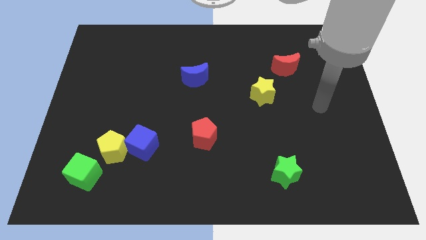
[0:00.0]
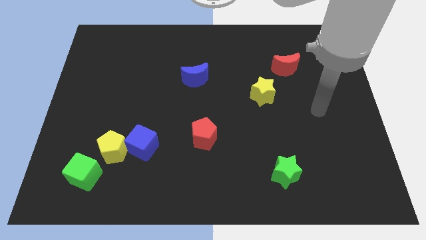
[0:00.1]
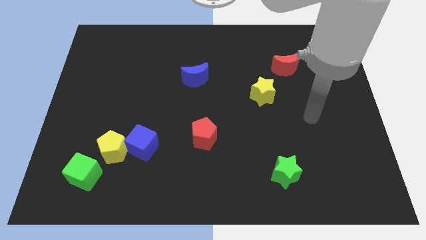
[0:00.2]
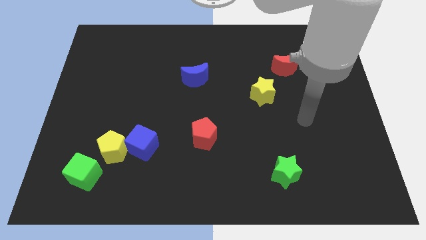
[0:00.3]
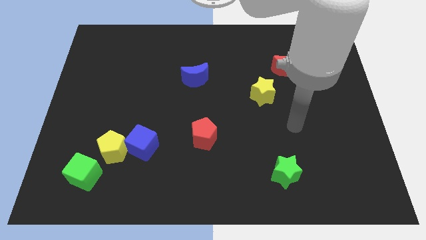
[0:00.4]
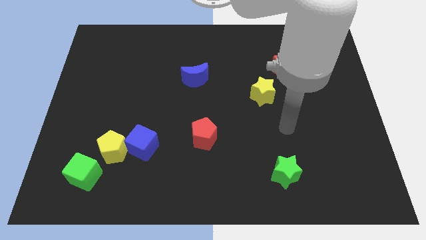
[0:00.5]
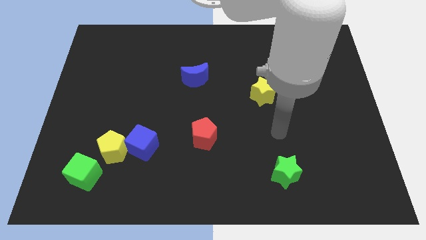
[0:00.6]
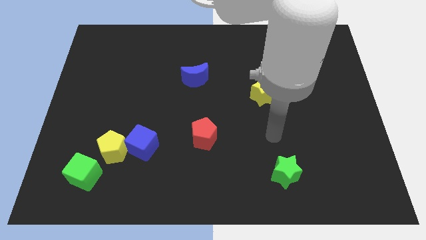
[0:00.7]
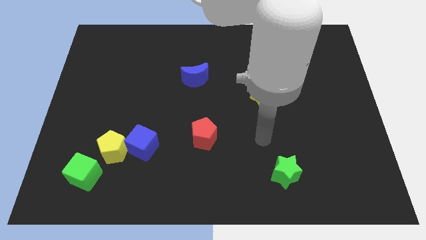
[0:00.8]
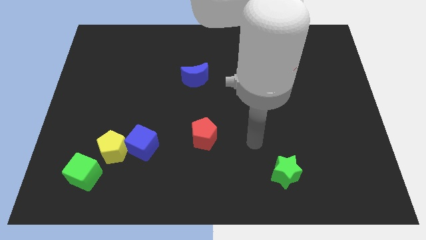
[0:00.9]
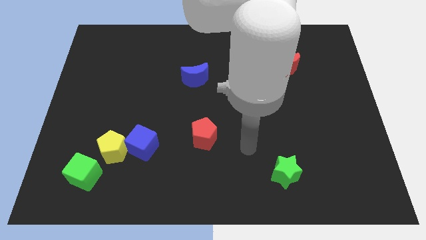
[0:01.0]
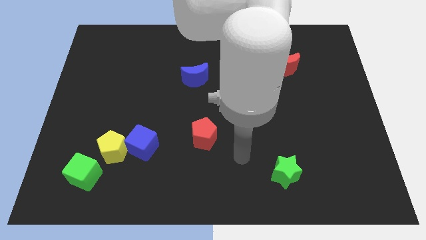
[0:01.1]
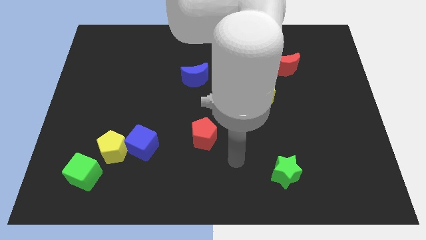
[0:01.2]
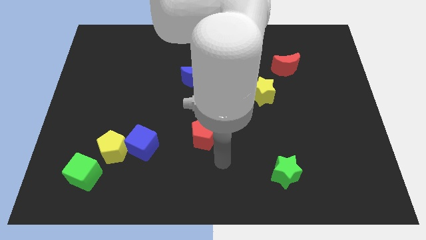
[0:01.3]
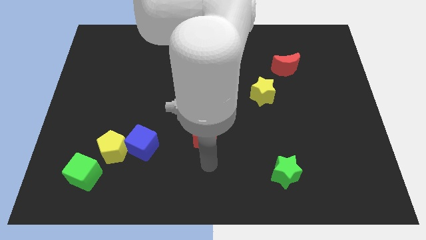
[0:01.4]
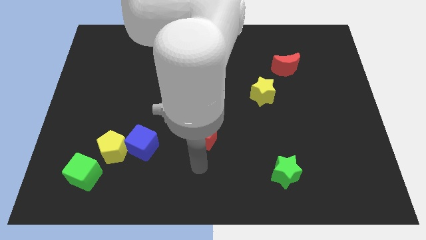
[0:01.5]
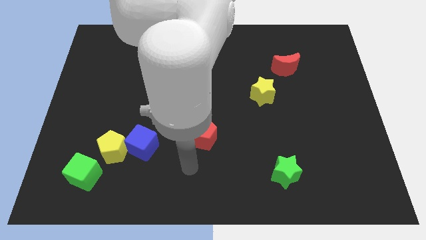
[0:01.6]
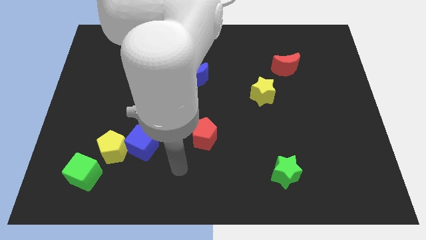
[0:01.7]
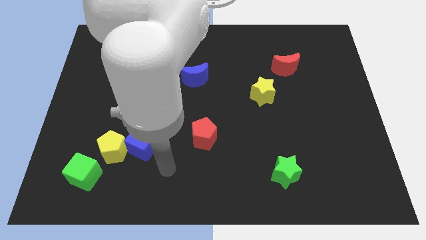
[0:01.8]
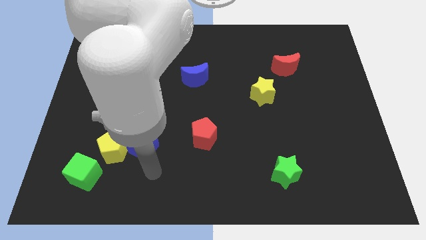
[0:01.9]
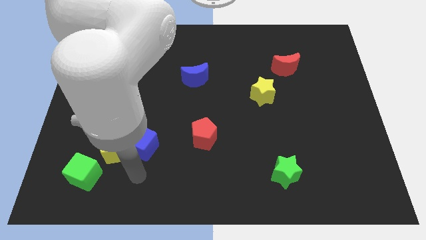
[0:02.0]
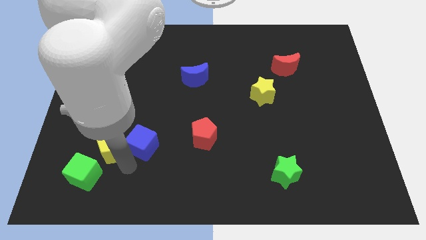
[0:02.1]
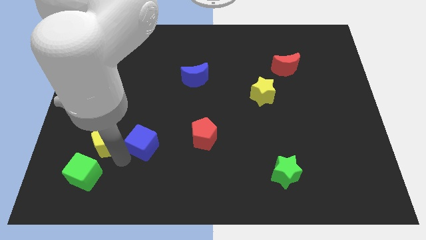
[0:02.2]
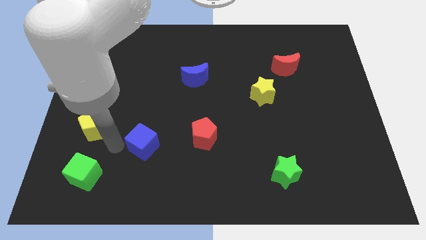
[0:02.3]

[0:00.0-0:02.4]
separate the blue cube from the yellow pentagon

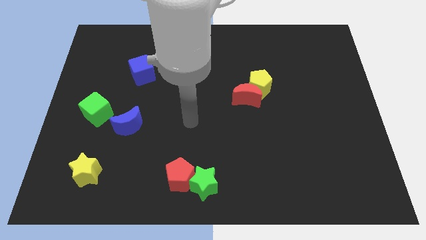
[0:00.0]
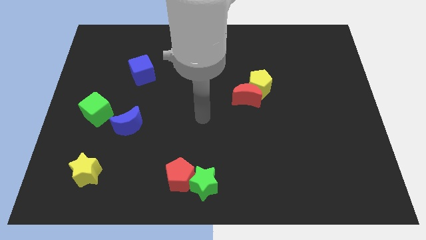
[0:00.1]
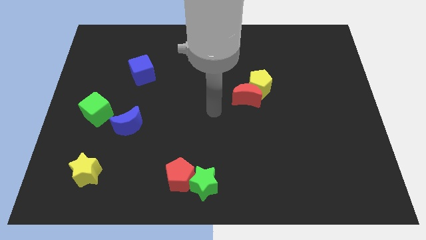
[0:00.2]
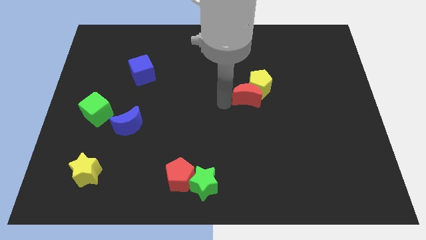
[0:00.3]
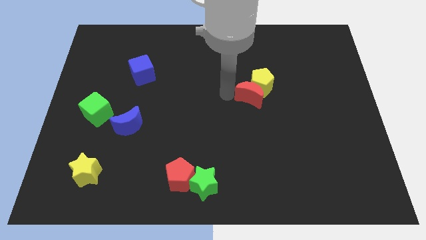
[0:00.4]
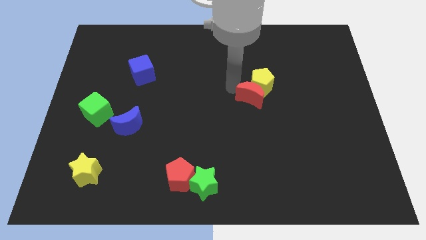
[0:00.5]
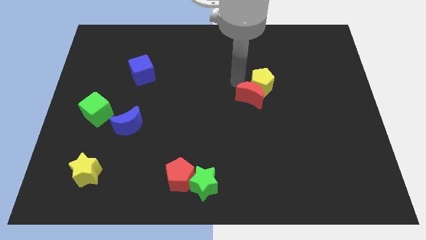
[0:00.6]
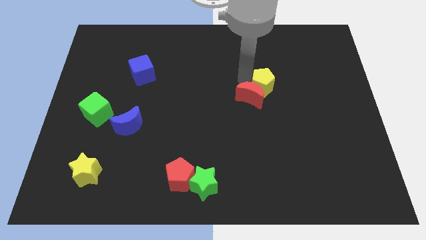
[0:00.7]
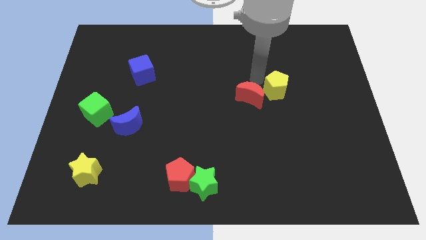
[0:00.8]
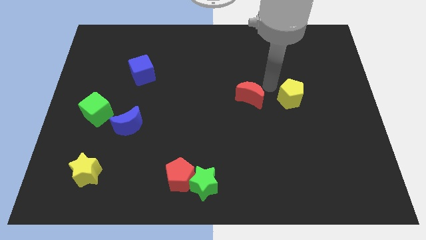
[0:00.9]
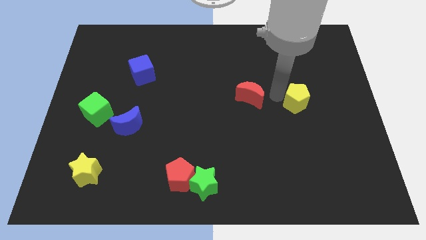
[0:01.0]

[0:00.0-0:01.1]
pull the red moon apart from the yellow pentagon

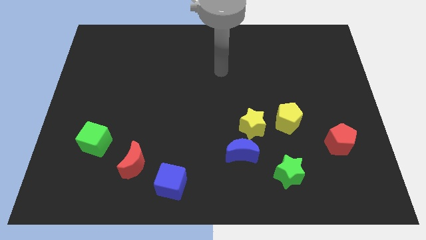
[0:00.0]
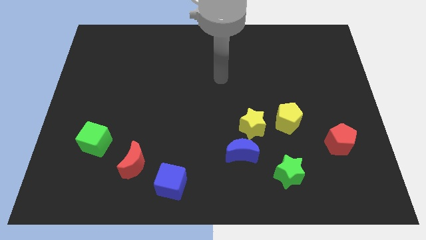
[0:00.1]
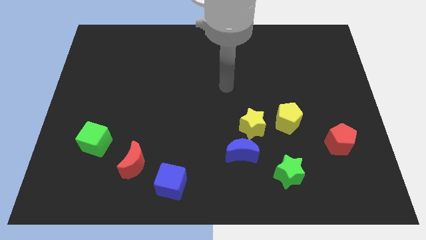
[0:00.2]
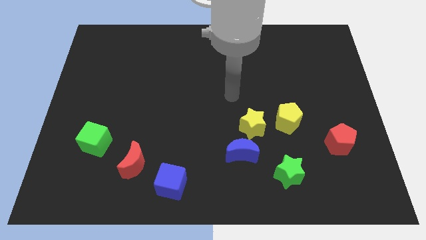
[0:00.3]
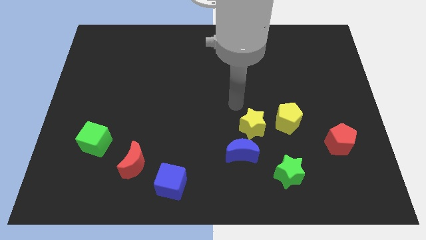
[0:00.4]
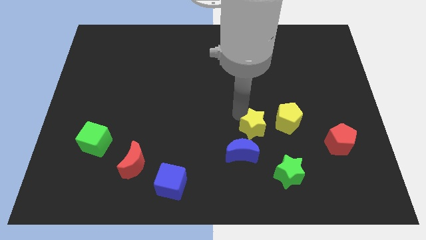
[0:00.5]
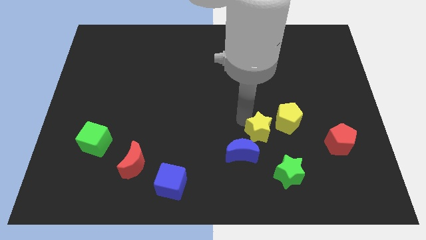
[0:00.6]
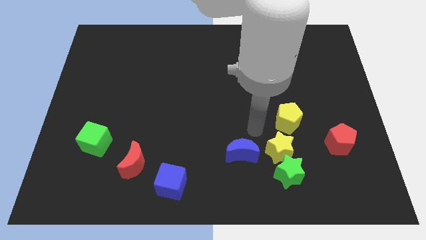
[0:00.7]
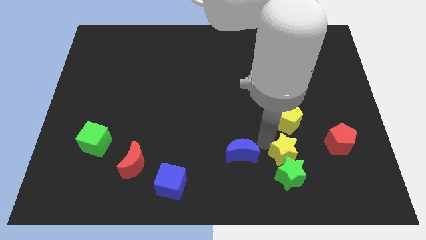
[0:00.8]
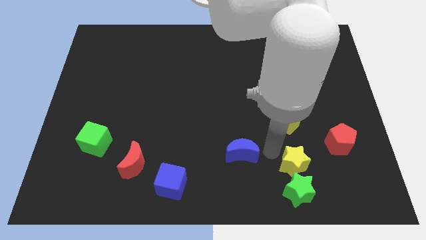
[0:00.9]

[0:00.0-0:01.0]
separate the blue moon from the yellow star

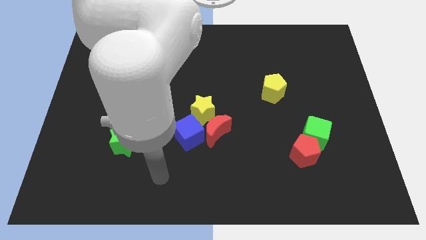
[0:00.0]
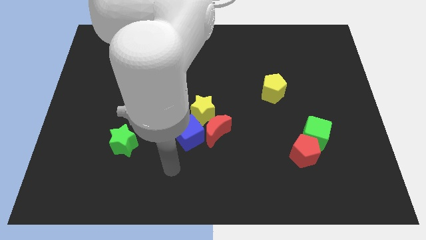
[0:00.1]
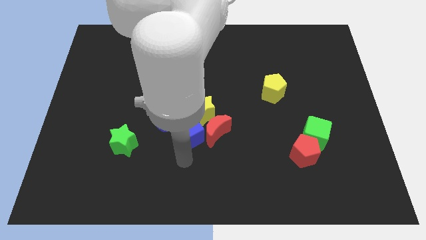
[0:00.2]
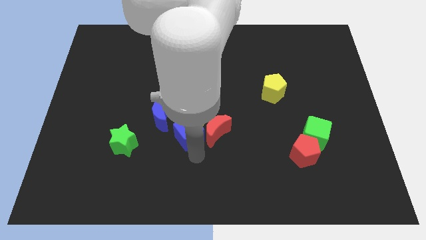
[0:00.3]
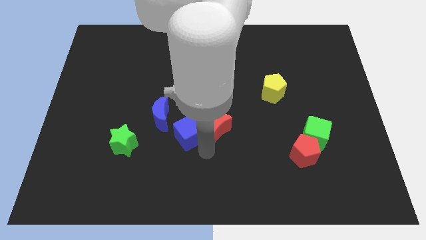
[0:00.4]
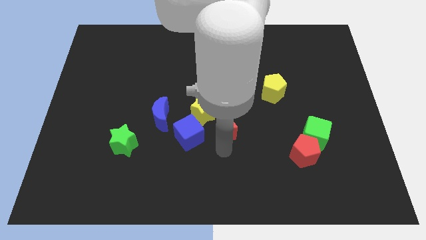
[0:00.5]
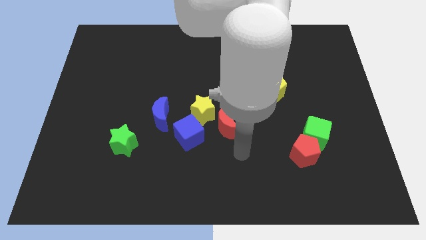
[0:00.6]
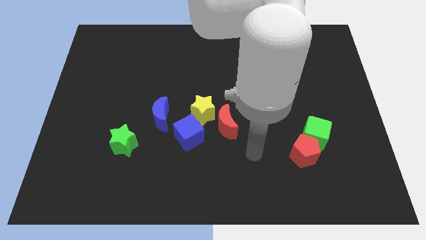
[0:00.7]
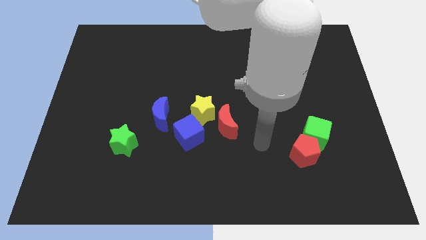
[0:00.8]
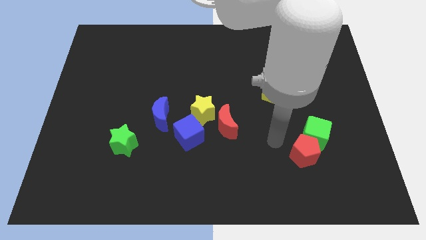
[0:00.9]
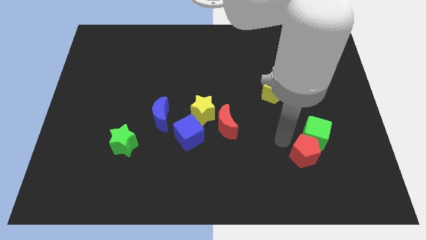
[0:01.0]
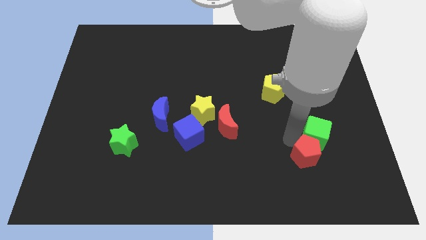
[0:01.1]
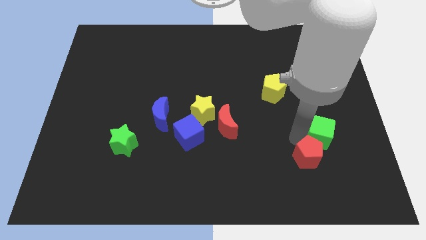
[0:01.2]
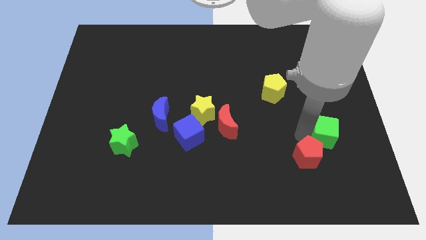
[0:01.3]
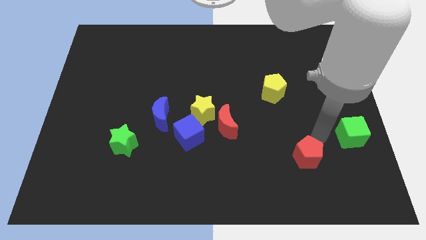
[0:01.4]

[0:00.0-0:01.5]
pull the red pentagon apart from the green cube

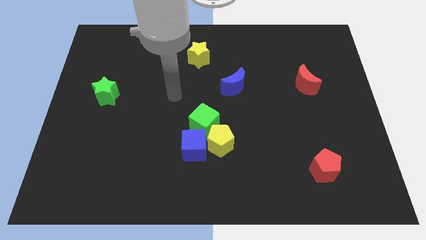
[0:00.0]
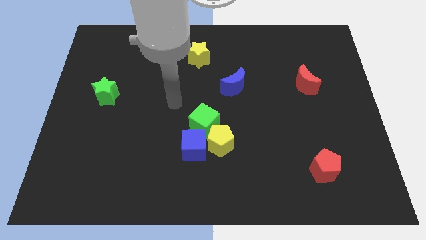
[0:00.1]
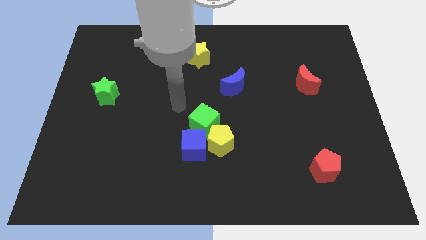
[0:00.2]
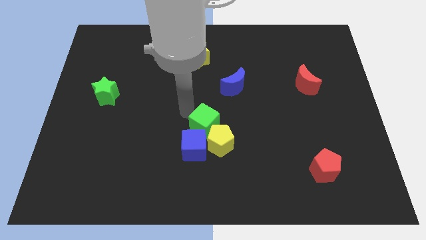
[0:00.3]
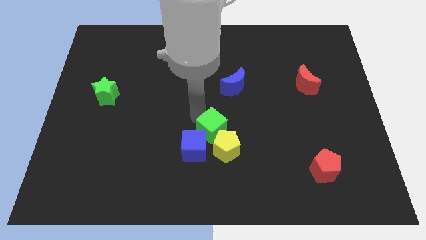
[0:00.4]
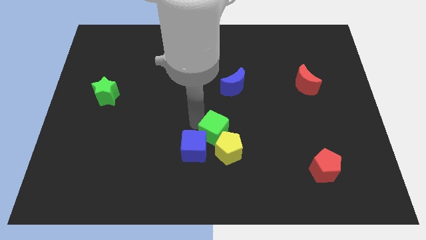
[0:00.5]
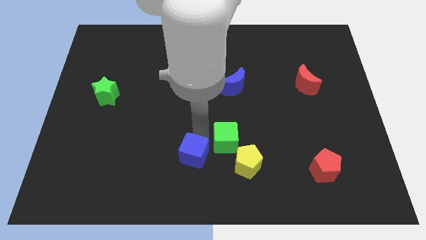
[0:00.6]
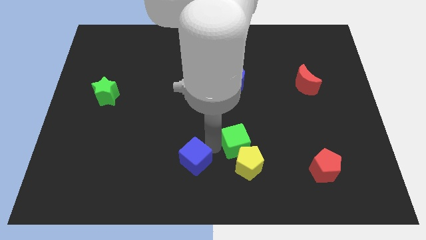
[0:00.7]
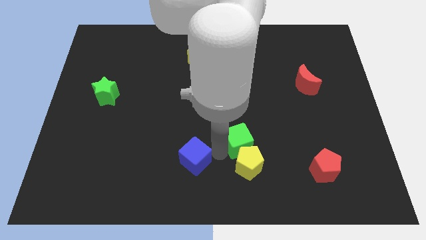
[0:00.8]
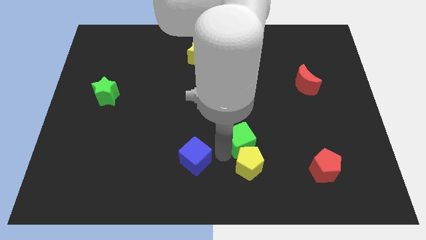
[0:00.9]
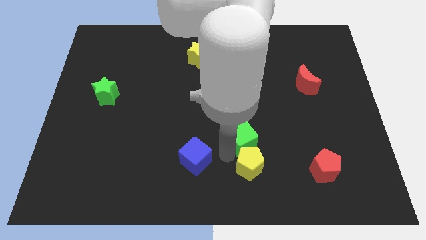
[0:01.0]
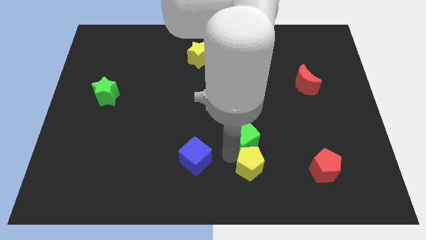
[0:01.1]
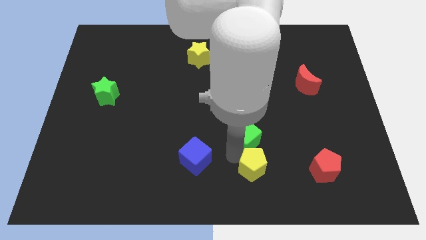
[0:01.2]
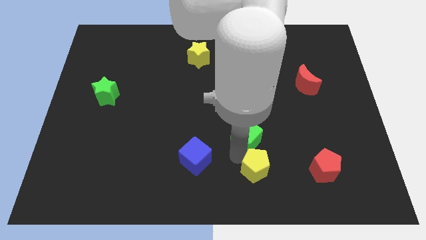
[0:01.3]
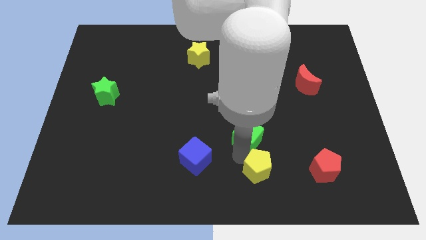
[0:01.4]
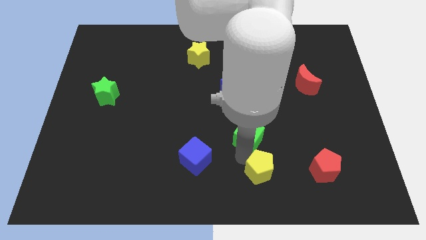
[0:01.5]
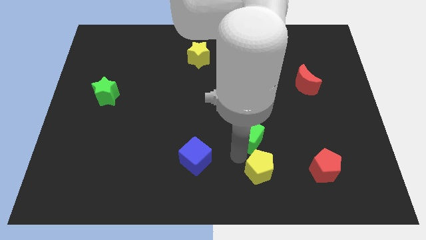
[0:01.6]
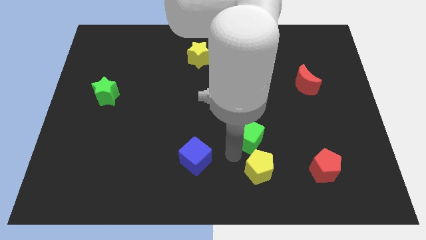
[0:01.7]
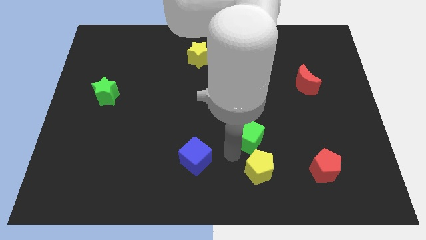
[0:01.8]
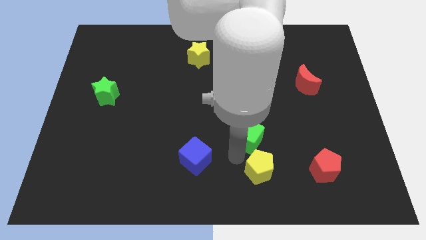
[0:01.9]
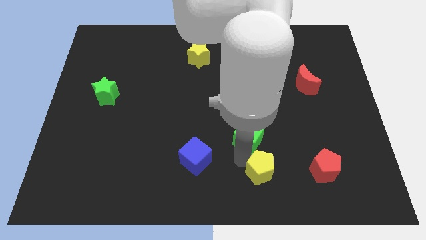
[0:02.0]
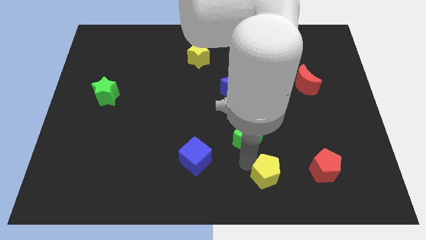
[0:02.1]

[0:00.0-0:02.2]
separate the yellow pentagon from the blue cube and green cube

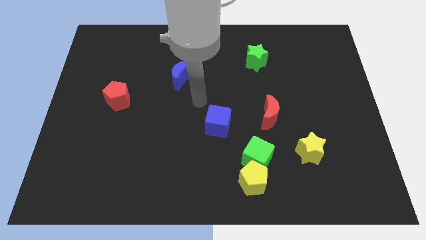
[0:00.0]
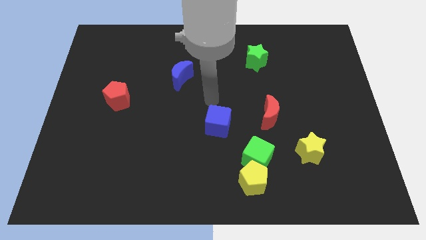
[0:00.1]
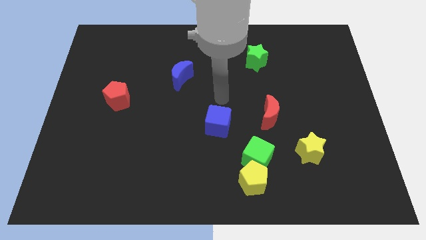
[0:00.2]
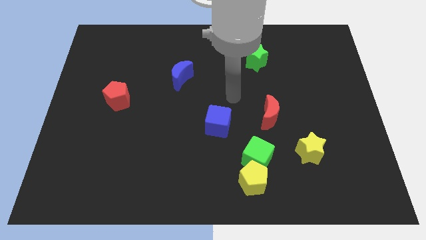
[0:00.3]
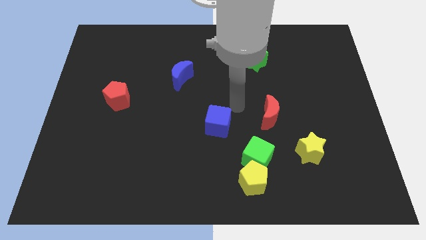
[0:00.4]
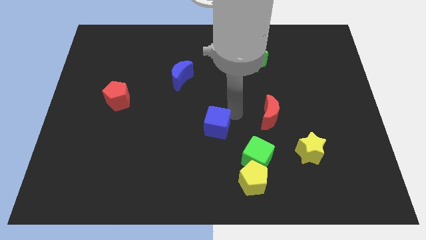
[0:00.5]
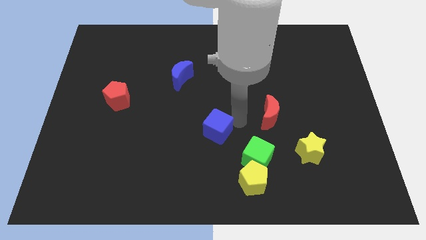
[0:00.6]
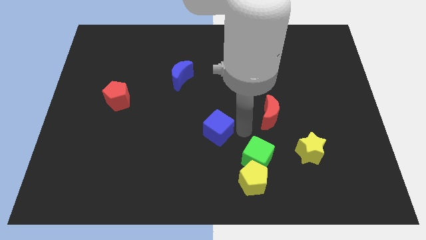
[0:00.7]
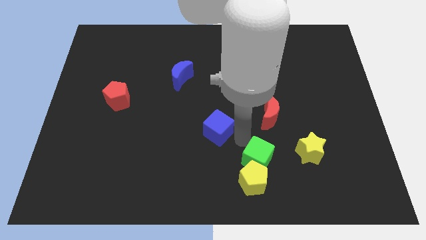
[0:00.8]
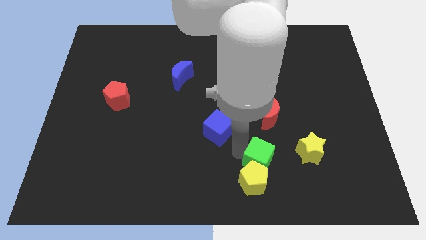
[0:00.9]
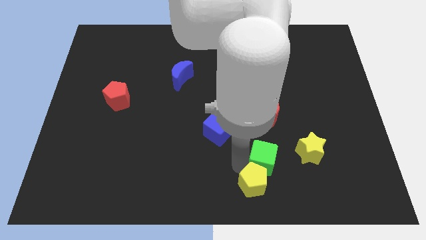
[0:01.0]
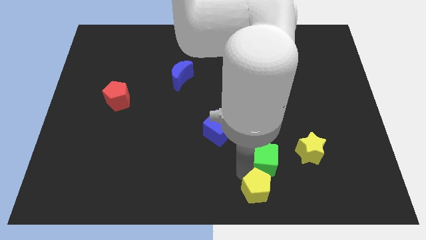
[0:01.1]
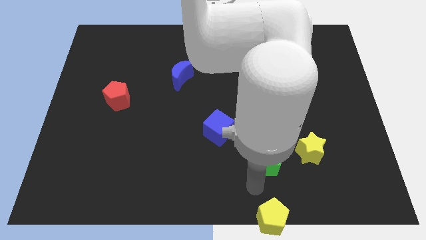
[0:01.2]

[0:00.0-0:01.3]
separate the green cube from the yellow pentagon
